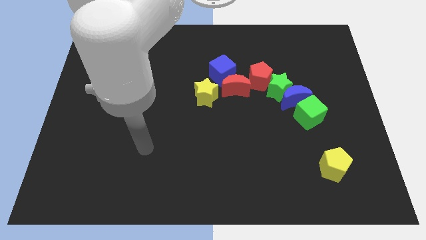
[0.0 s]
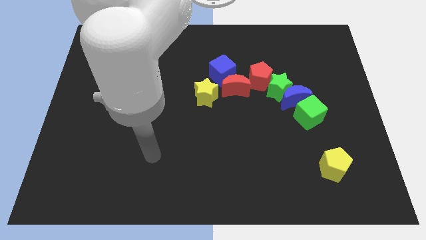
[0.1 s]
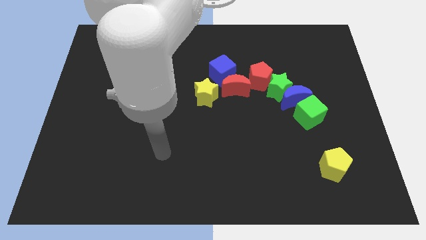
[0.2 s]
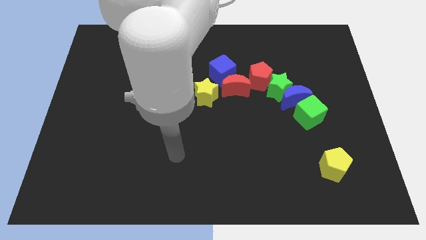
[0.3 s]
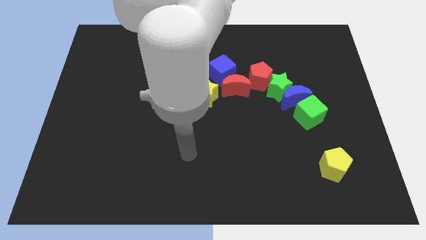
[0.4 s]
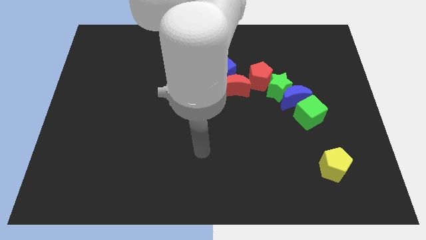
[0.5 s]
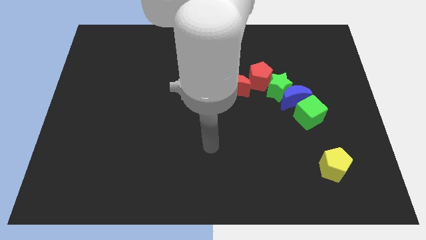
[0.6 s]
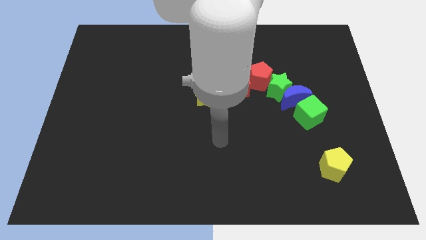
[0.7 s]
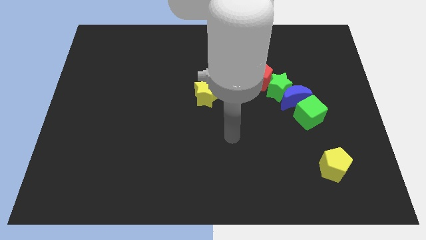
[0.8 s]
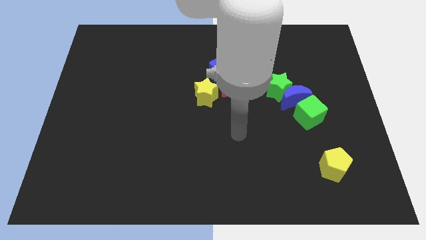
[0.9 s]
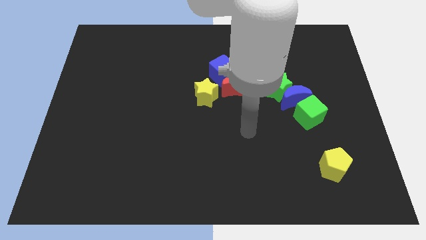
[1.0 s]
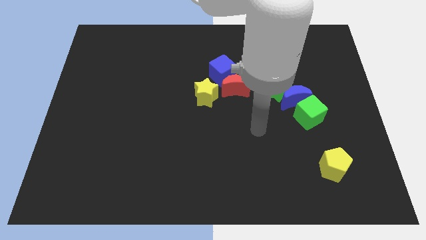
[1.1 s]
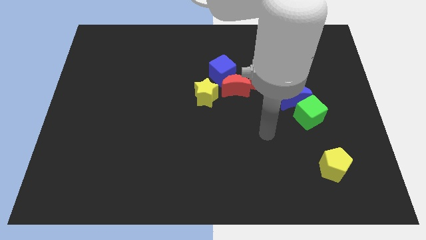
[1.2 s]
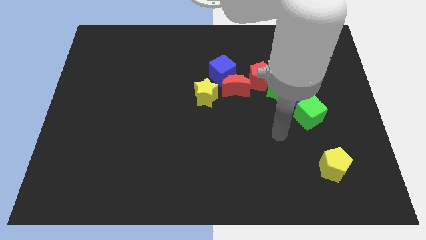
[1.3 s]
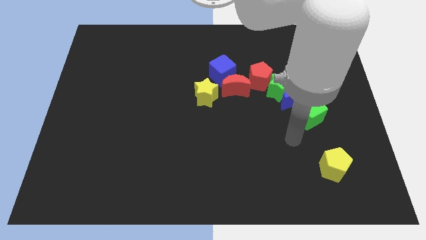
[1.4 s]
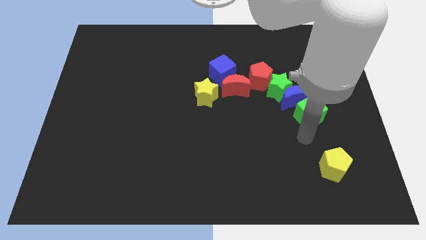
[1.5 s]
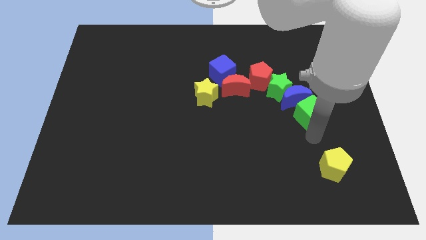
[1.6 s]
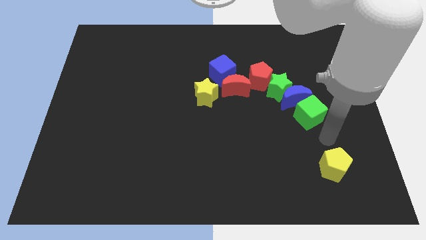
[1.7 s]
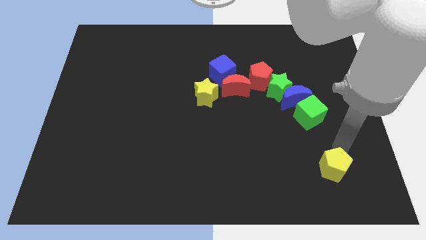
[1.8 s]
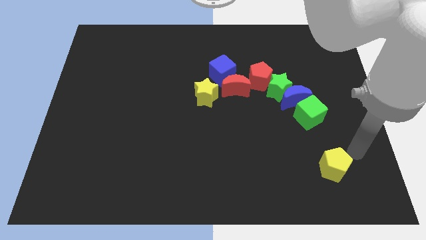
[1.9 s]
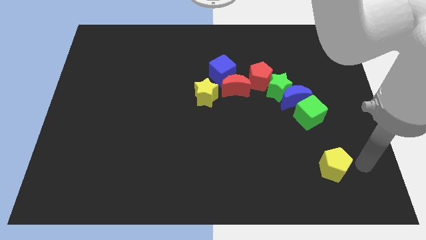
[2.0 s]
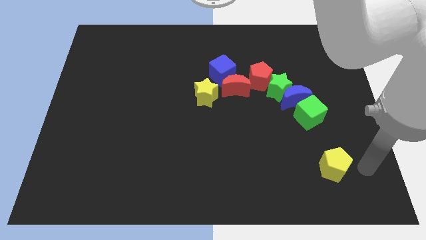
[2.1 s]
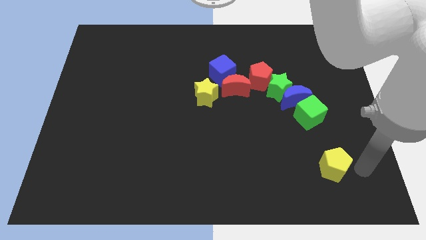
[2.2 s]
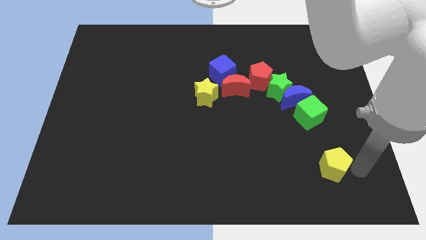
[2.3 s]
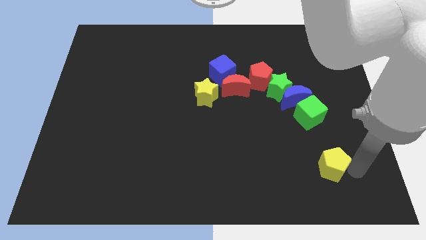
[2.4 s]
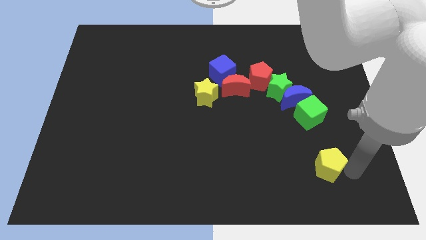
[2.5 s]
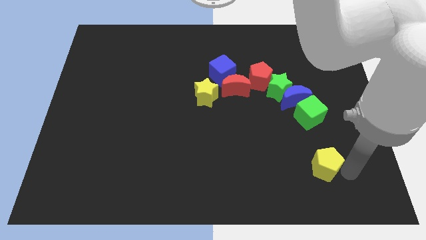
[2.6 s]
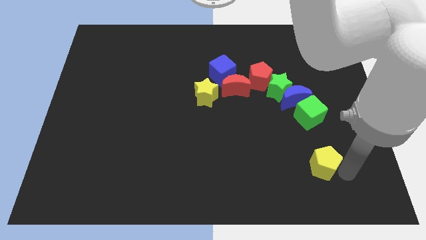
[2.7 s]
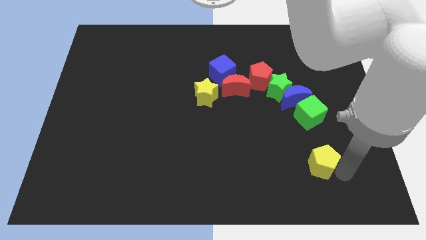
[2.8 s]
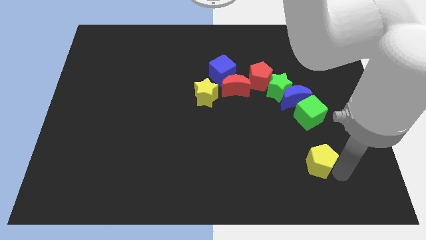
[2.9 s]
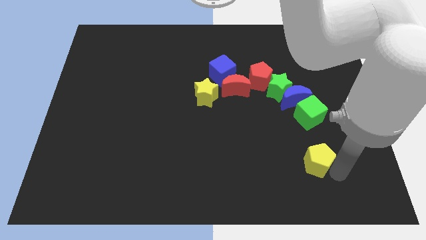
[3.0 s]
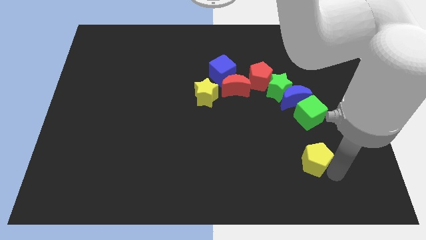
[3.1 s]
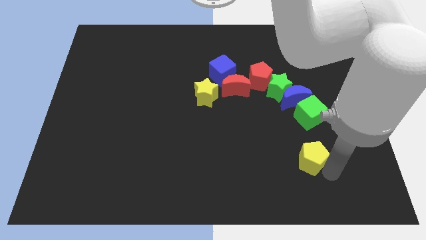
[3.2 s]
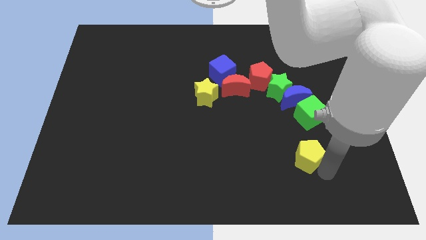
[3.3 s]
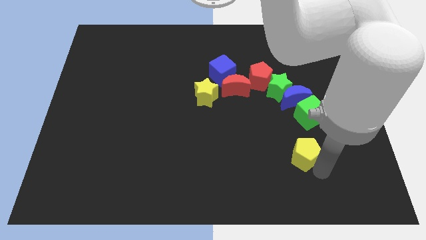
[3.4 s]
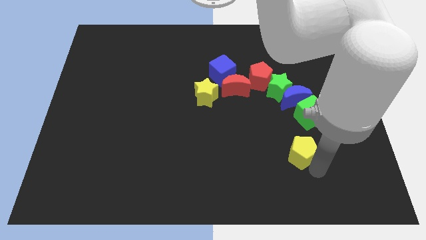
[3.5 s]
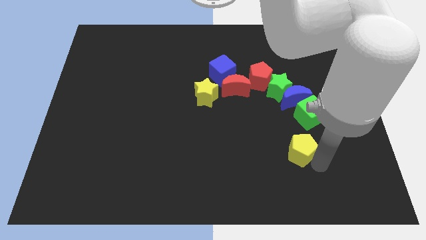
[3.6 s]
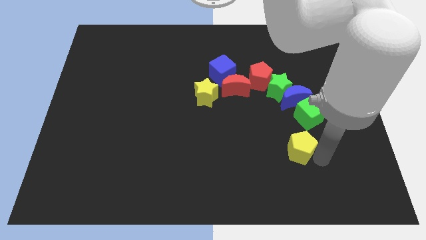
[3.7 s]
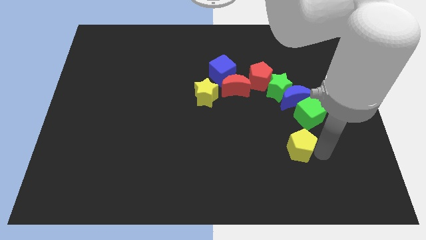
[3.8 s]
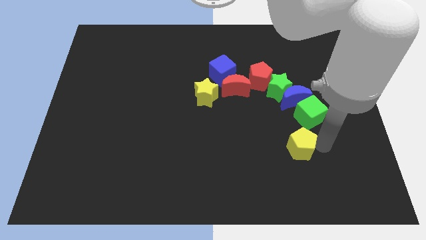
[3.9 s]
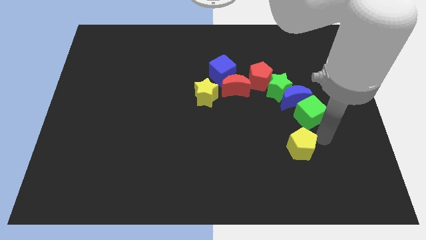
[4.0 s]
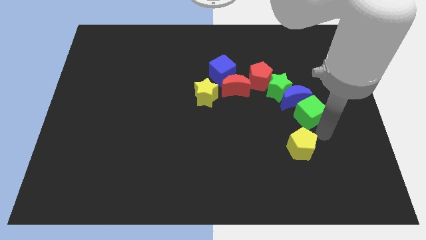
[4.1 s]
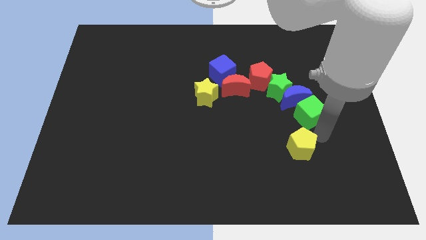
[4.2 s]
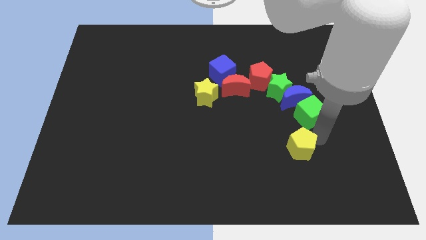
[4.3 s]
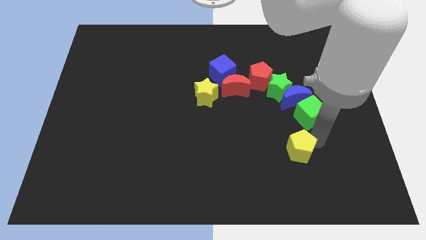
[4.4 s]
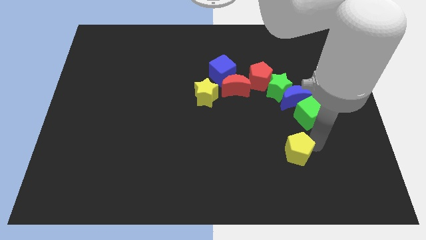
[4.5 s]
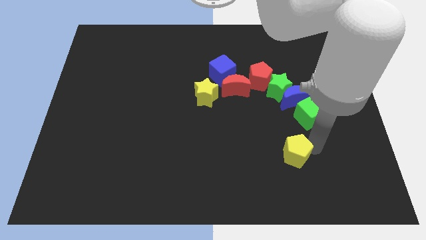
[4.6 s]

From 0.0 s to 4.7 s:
slightly move the yellow pentagon left

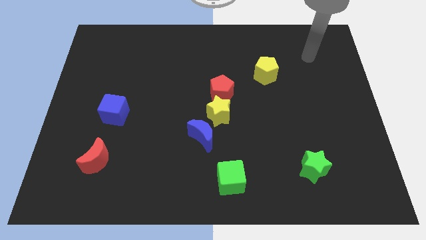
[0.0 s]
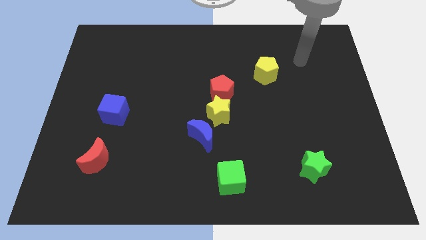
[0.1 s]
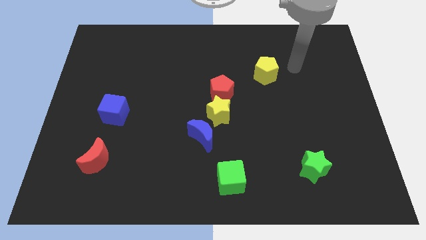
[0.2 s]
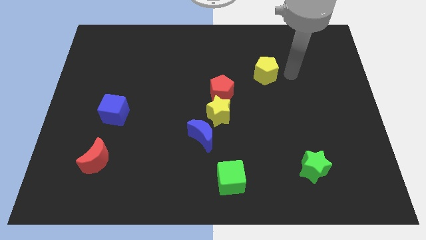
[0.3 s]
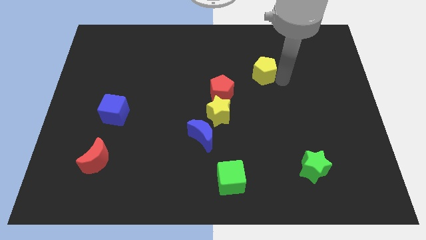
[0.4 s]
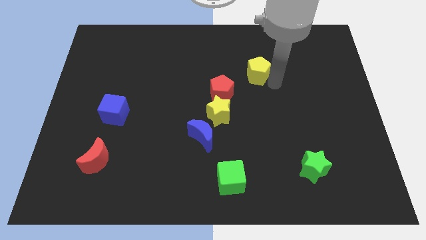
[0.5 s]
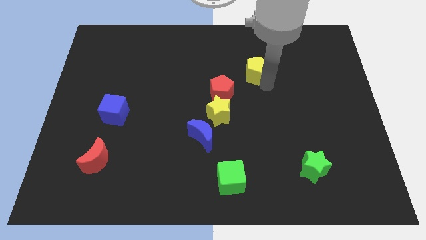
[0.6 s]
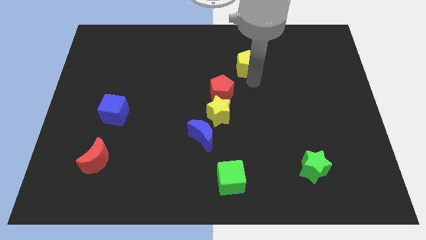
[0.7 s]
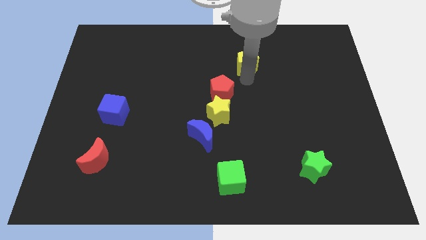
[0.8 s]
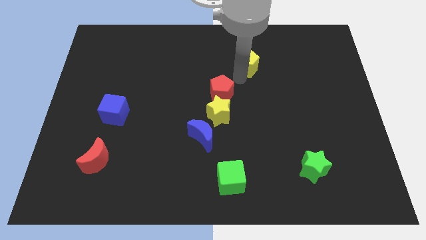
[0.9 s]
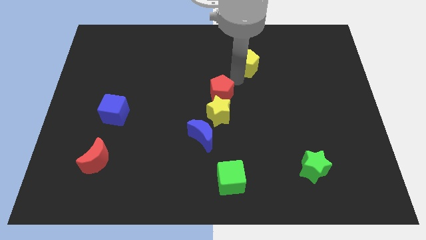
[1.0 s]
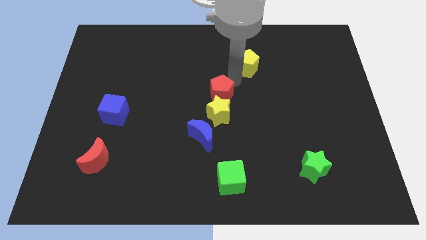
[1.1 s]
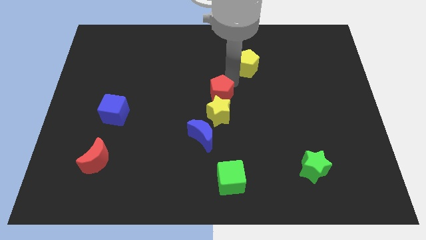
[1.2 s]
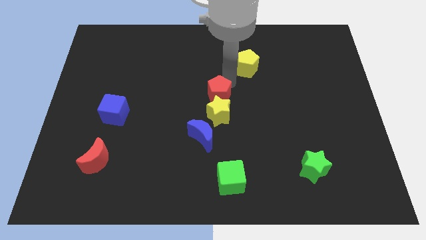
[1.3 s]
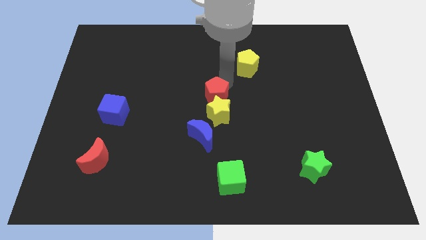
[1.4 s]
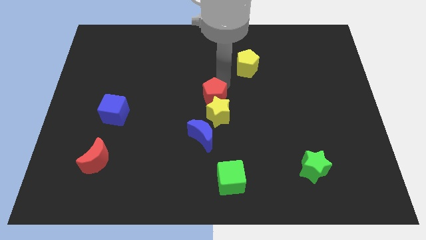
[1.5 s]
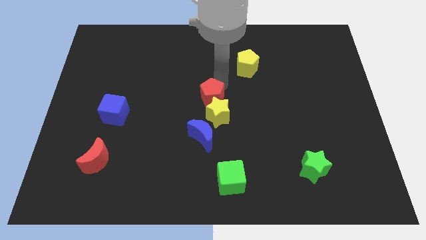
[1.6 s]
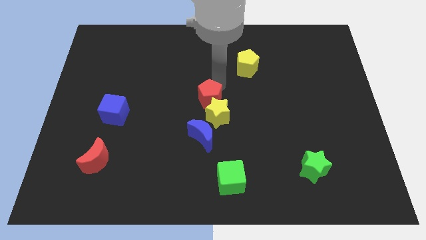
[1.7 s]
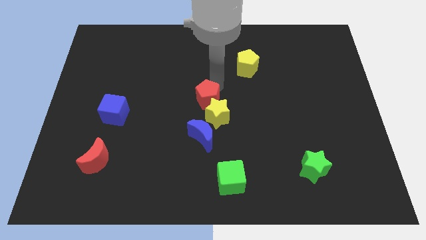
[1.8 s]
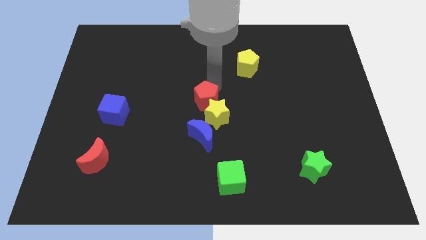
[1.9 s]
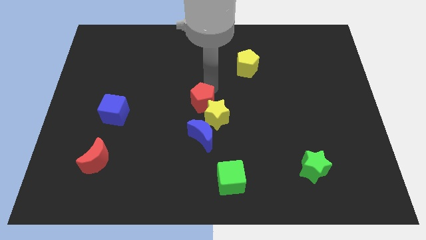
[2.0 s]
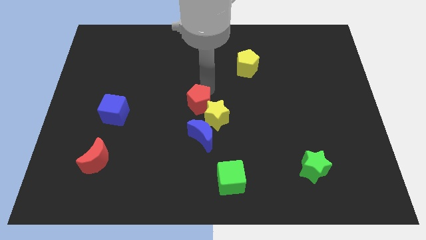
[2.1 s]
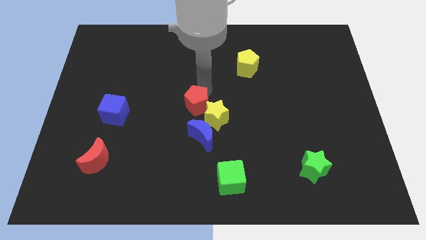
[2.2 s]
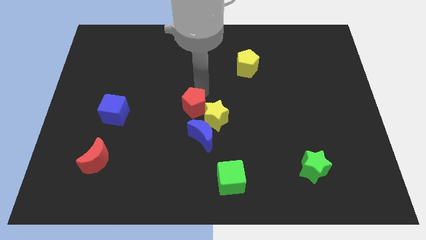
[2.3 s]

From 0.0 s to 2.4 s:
push the red pentagon a bit down and then left

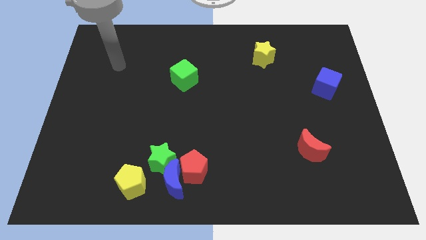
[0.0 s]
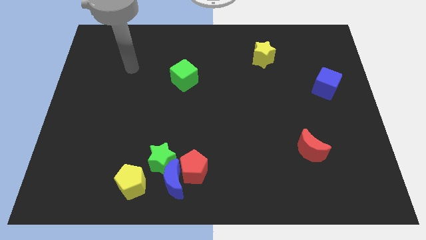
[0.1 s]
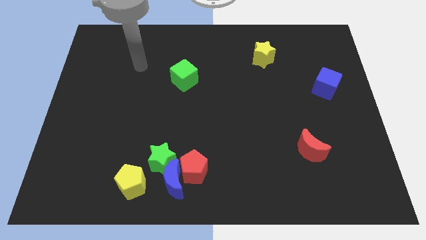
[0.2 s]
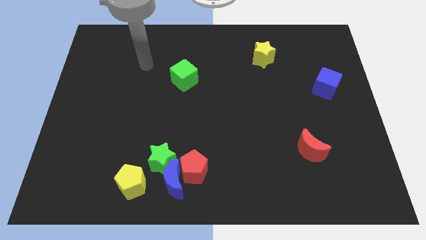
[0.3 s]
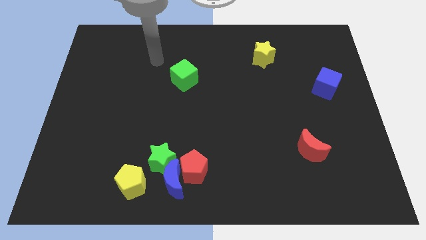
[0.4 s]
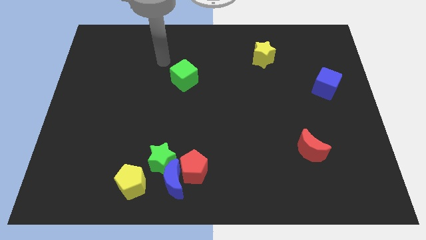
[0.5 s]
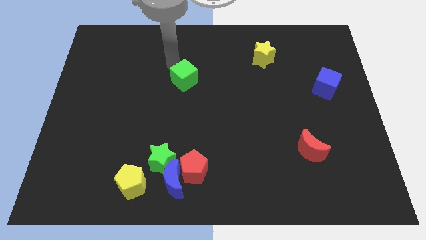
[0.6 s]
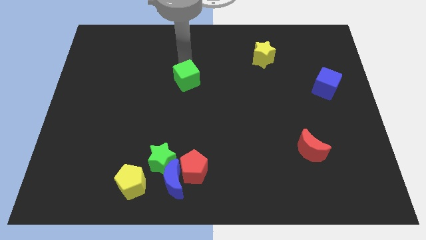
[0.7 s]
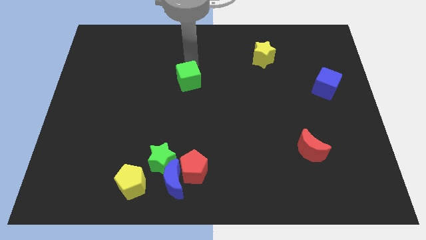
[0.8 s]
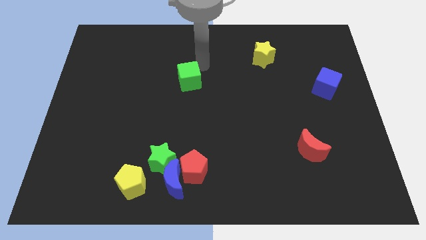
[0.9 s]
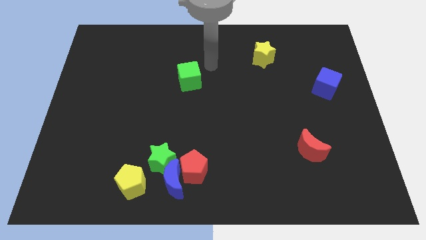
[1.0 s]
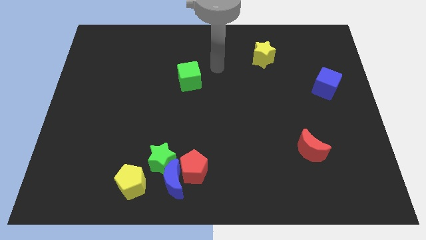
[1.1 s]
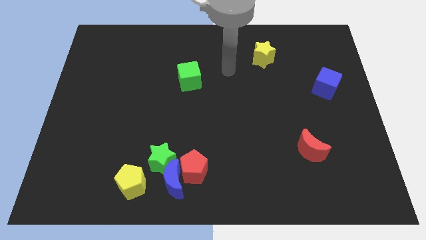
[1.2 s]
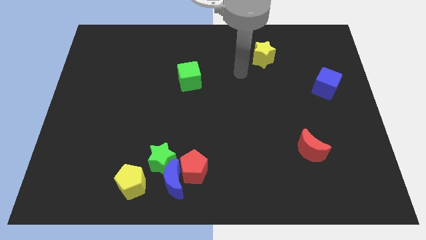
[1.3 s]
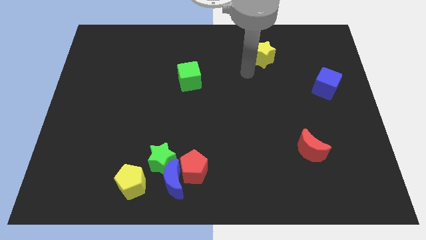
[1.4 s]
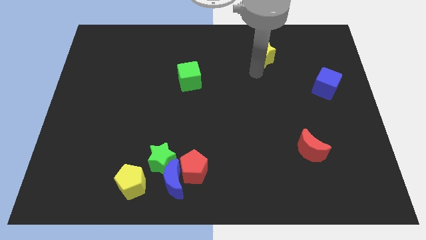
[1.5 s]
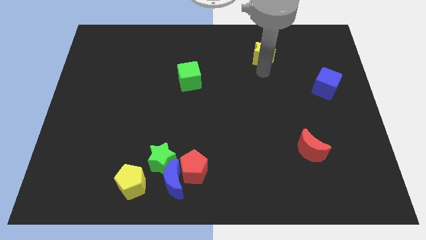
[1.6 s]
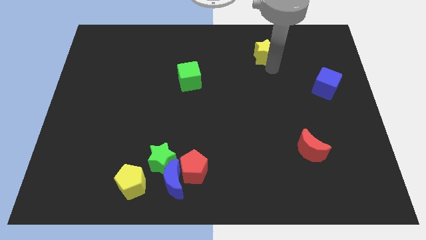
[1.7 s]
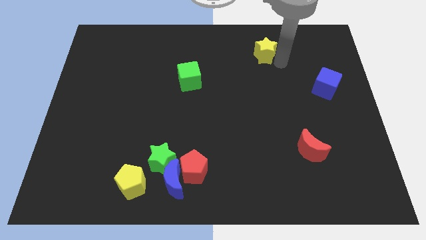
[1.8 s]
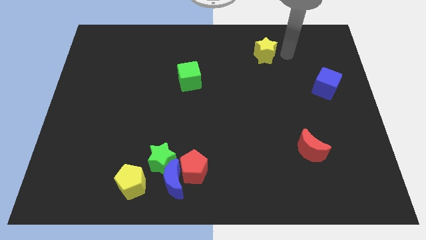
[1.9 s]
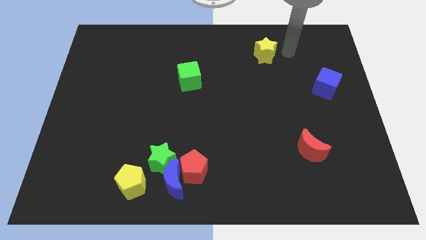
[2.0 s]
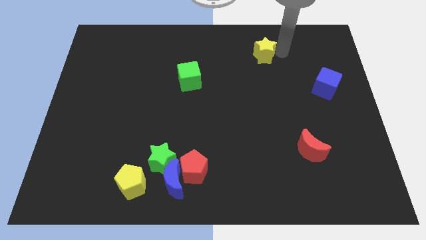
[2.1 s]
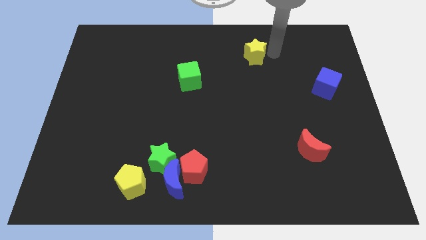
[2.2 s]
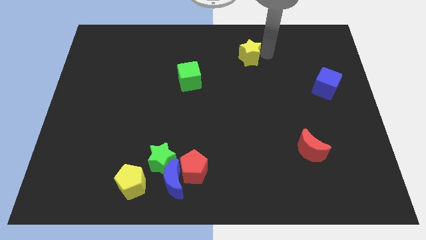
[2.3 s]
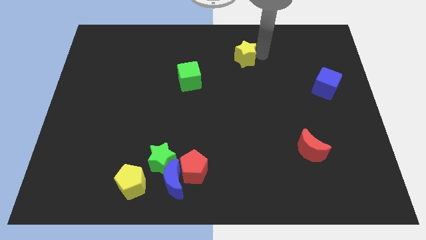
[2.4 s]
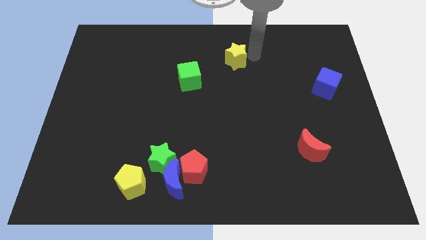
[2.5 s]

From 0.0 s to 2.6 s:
slightly move the yellow star left
